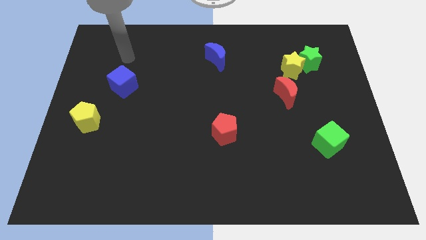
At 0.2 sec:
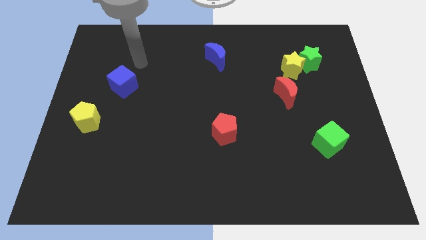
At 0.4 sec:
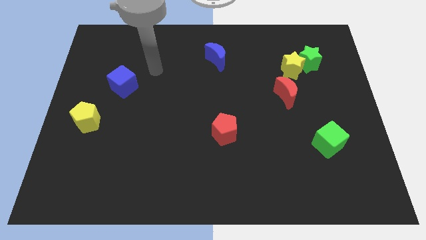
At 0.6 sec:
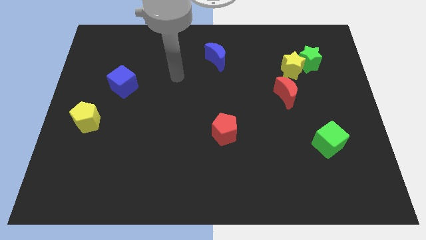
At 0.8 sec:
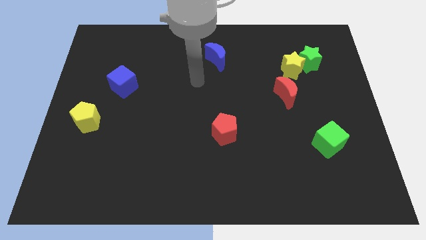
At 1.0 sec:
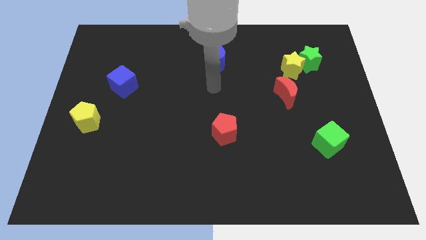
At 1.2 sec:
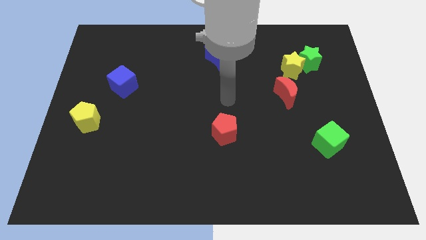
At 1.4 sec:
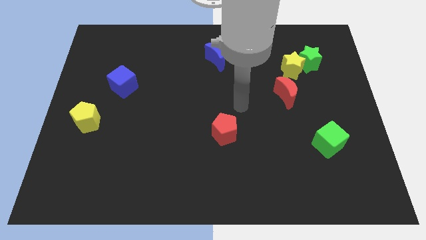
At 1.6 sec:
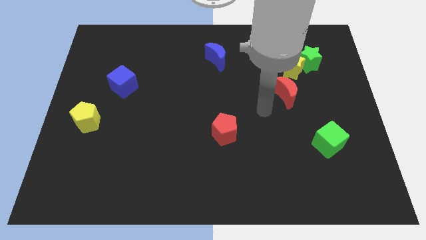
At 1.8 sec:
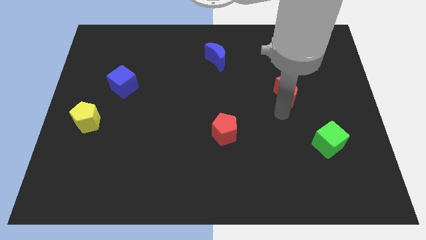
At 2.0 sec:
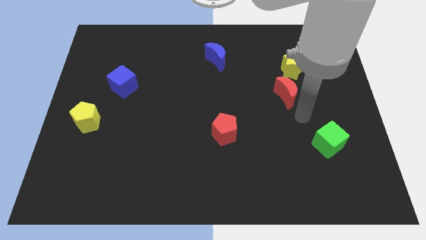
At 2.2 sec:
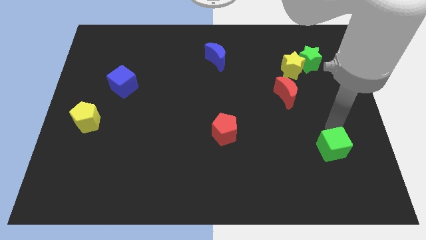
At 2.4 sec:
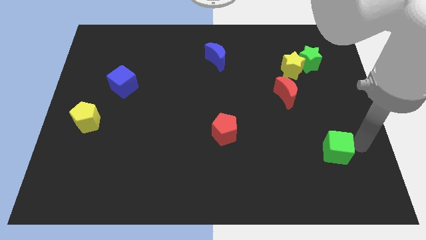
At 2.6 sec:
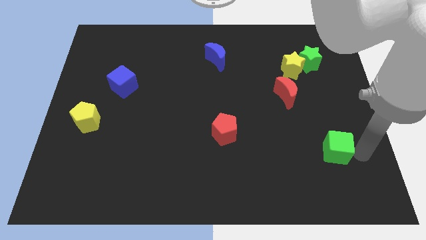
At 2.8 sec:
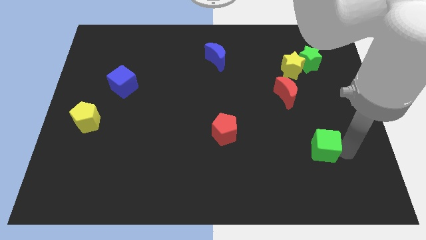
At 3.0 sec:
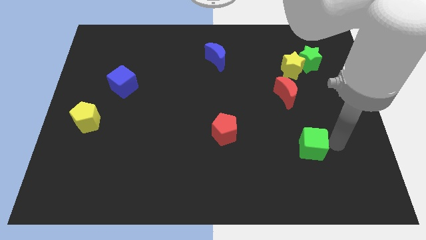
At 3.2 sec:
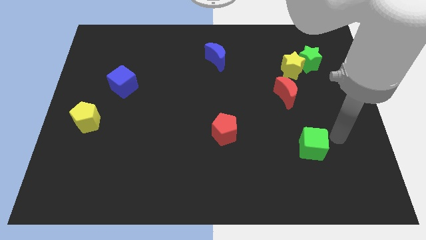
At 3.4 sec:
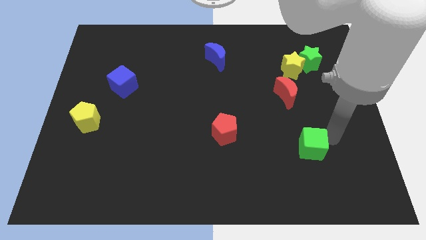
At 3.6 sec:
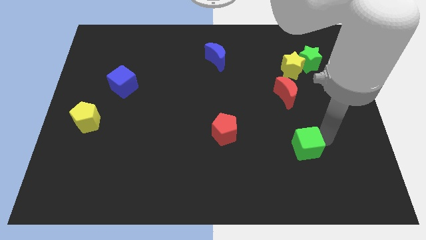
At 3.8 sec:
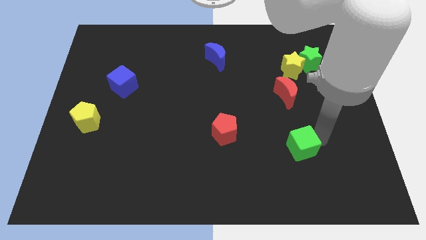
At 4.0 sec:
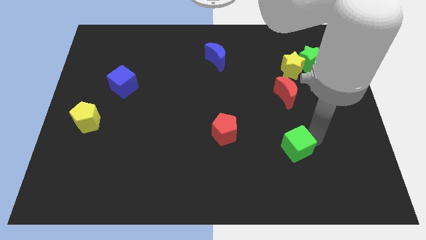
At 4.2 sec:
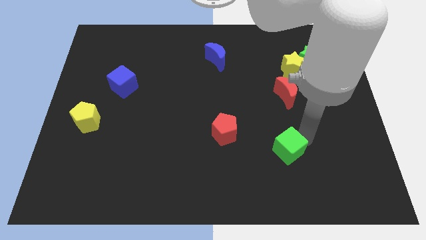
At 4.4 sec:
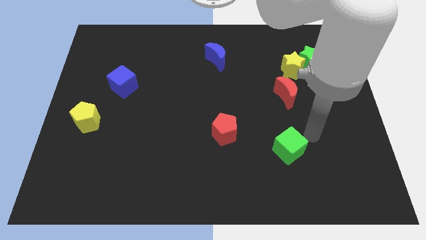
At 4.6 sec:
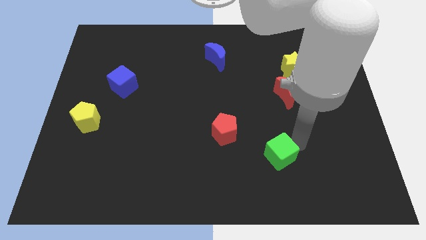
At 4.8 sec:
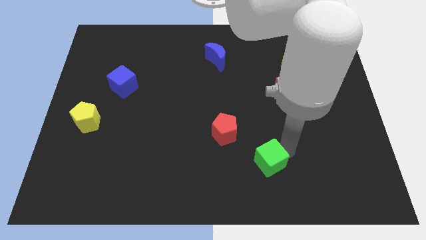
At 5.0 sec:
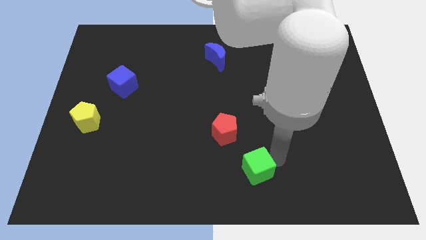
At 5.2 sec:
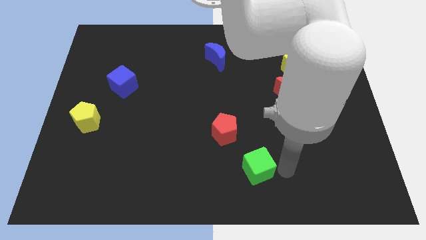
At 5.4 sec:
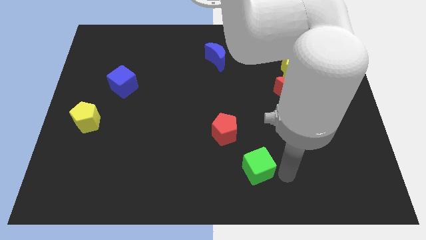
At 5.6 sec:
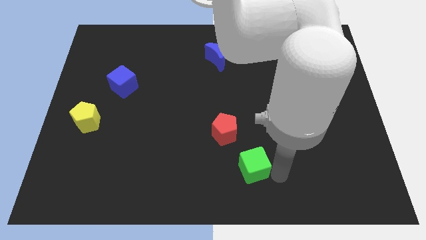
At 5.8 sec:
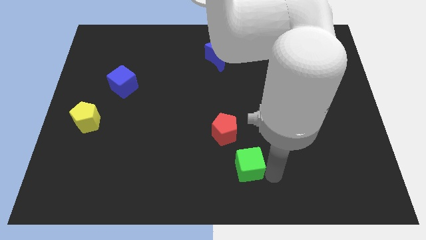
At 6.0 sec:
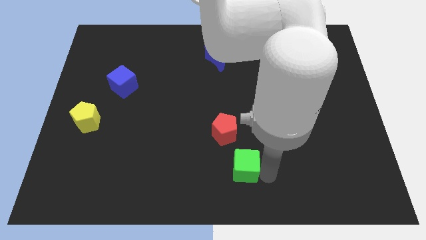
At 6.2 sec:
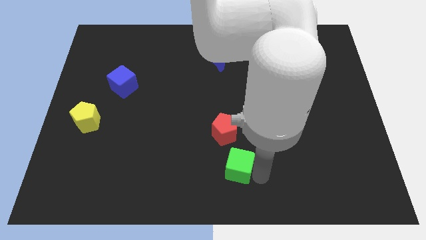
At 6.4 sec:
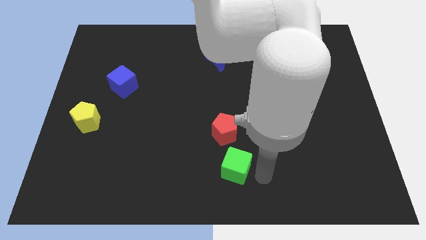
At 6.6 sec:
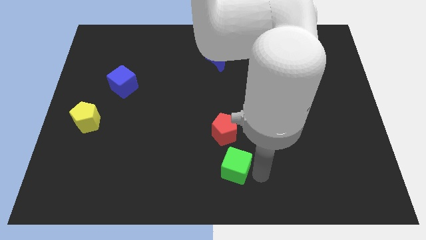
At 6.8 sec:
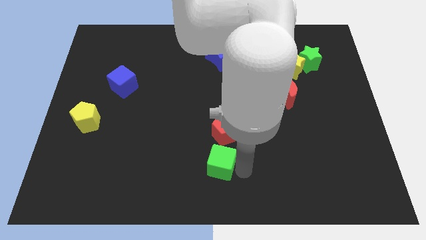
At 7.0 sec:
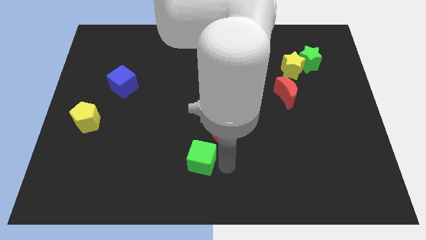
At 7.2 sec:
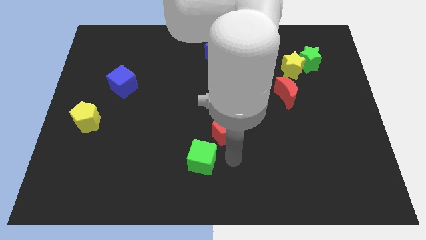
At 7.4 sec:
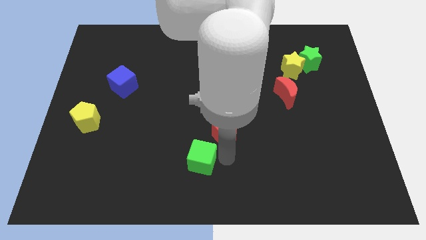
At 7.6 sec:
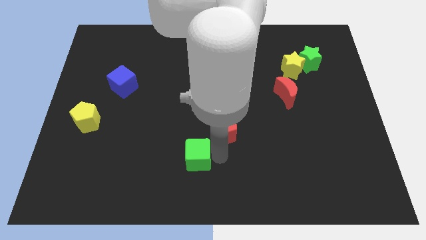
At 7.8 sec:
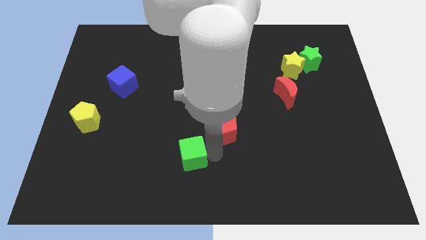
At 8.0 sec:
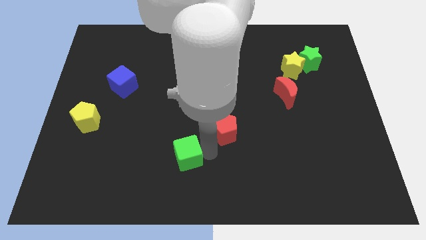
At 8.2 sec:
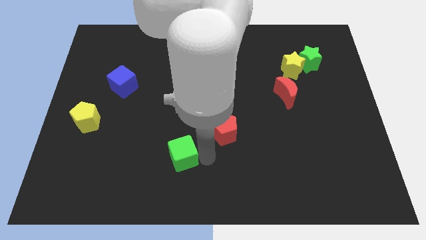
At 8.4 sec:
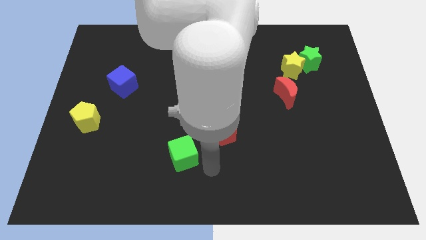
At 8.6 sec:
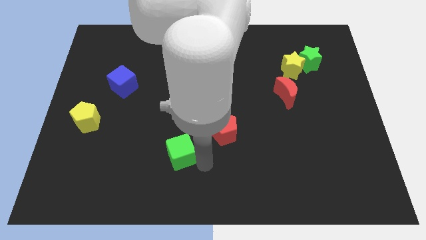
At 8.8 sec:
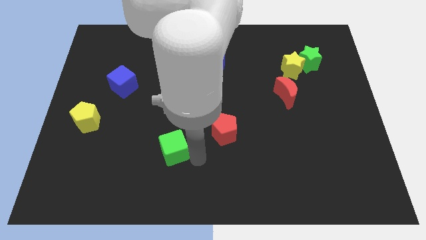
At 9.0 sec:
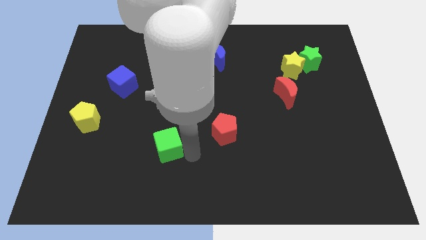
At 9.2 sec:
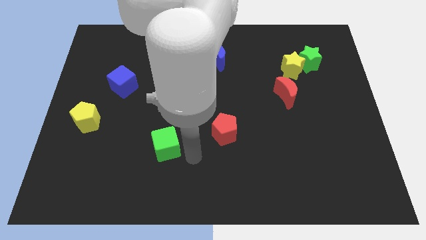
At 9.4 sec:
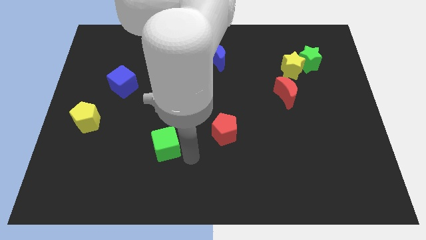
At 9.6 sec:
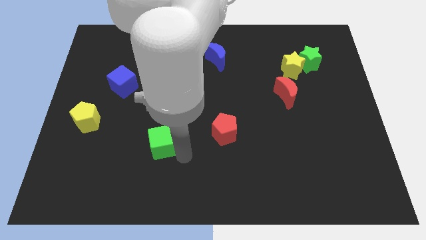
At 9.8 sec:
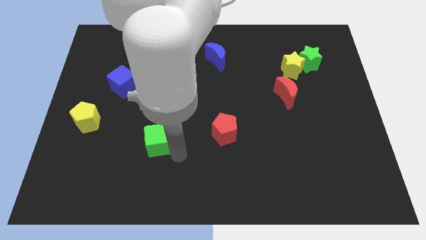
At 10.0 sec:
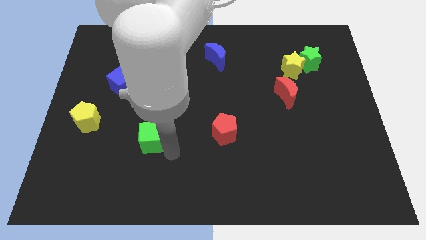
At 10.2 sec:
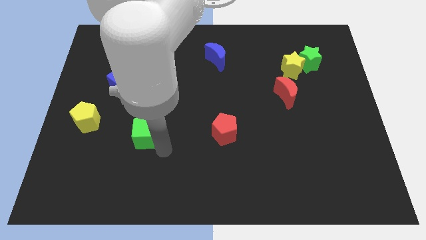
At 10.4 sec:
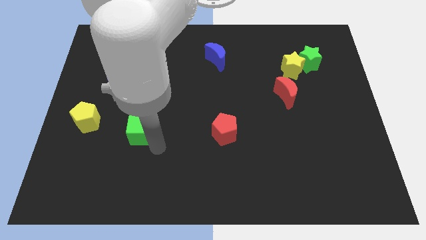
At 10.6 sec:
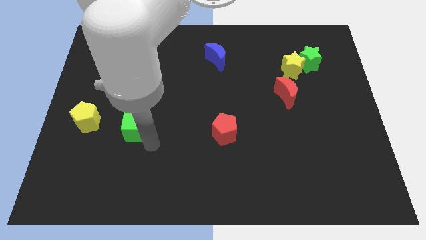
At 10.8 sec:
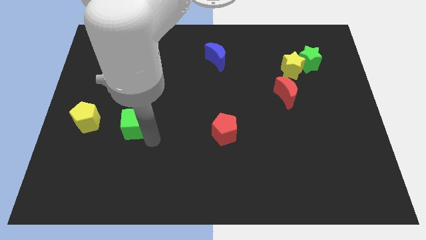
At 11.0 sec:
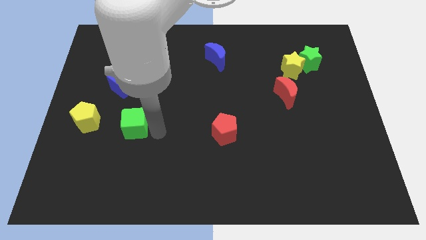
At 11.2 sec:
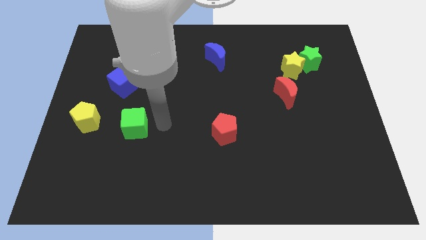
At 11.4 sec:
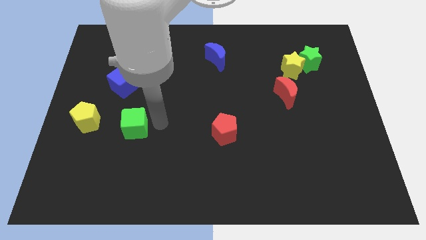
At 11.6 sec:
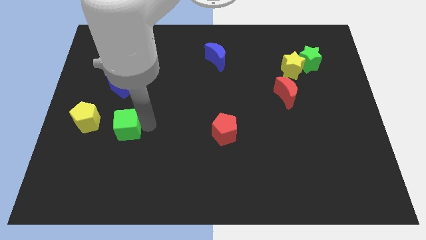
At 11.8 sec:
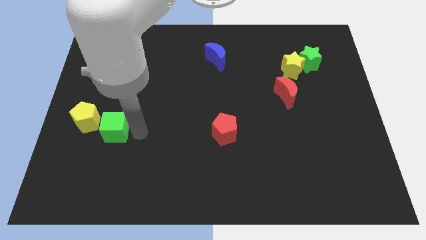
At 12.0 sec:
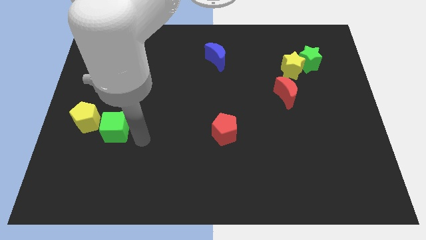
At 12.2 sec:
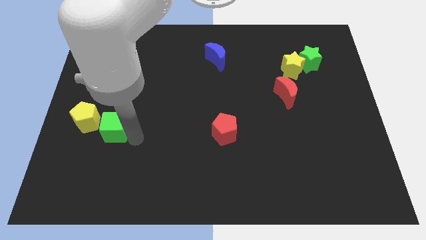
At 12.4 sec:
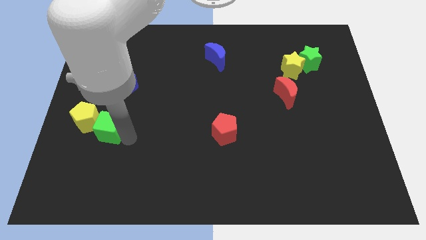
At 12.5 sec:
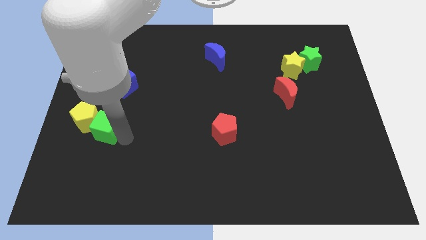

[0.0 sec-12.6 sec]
slide the green cube next to the yellow pentagon

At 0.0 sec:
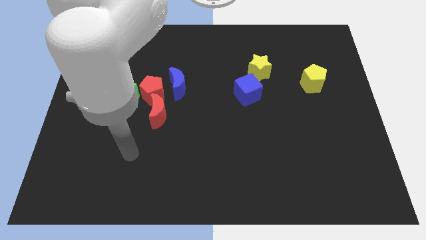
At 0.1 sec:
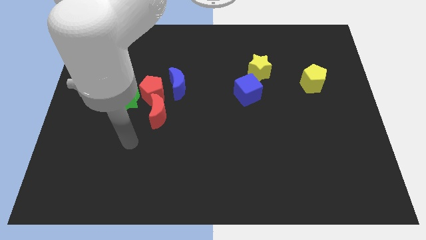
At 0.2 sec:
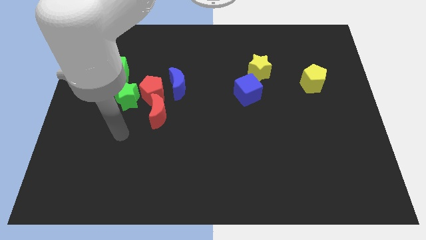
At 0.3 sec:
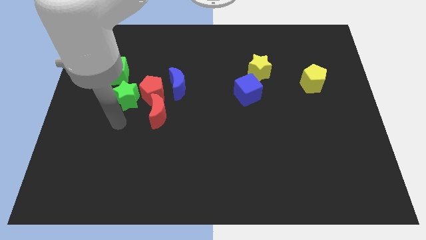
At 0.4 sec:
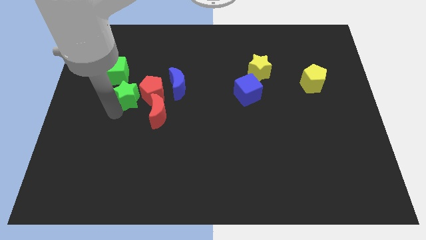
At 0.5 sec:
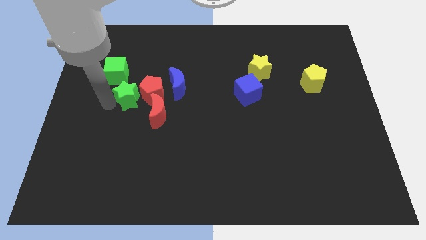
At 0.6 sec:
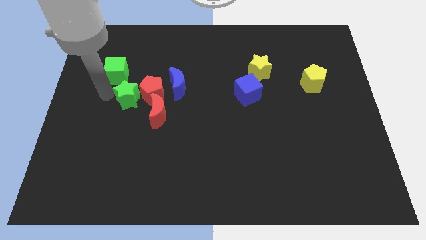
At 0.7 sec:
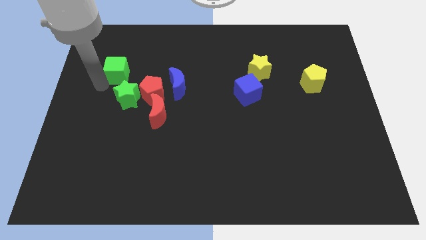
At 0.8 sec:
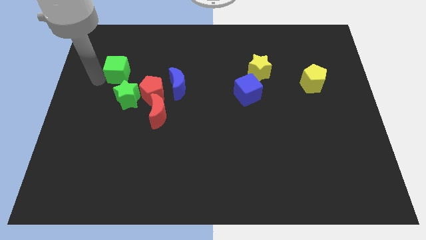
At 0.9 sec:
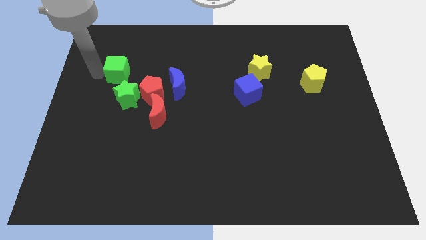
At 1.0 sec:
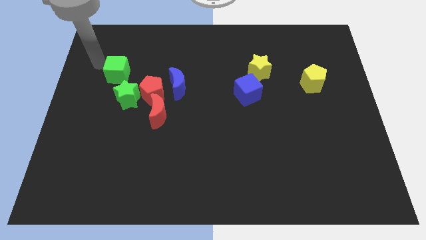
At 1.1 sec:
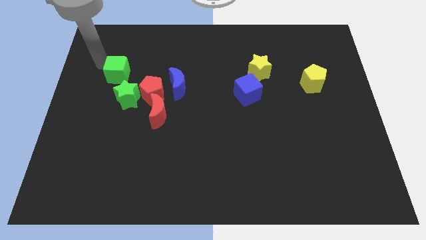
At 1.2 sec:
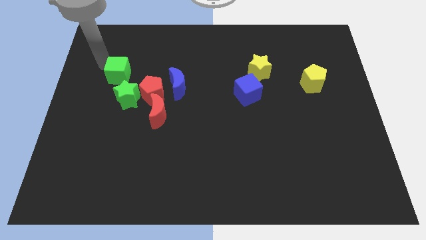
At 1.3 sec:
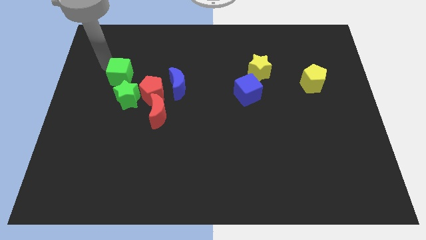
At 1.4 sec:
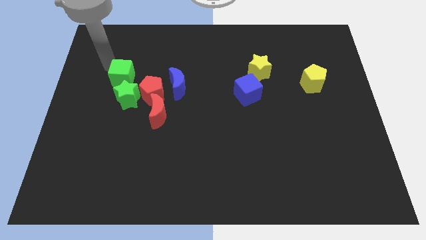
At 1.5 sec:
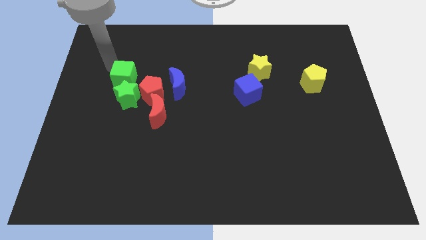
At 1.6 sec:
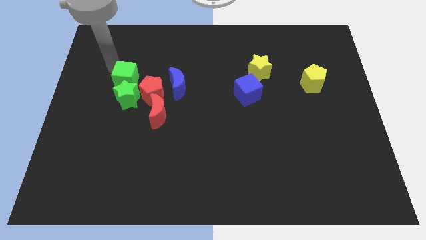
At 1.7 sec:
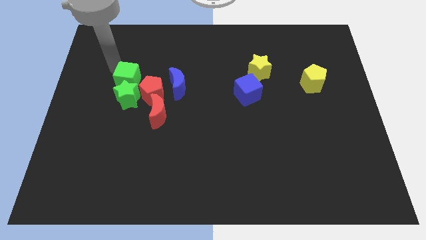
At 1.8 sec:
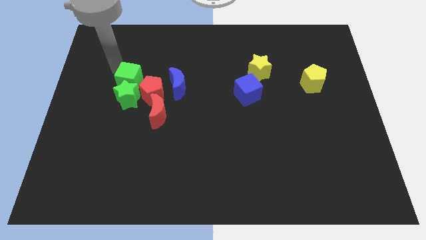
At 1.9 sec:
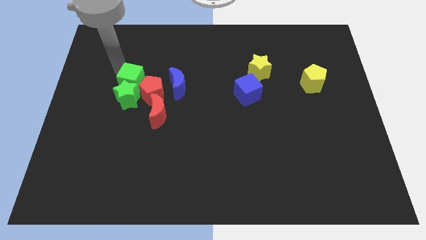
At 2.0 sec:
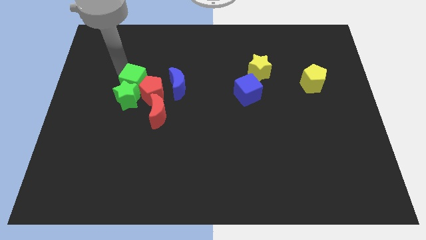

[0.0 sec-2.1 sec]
slide the green cube next to the red pentagon
